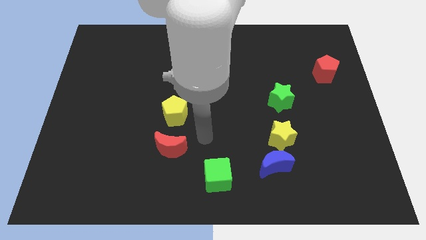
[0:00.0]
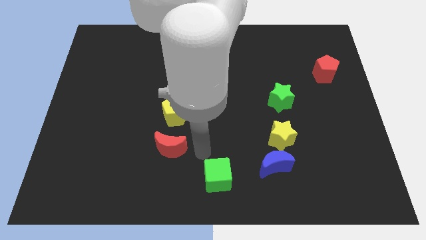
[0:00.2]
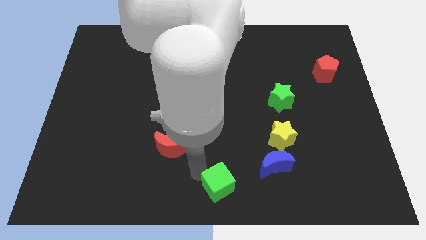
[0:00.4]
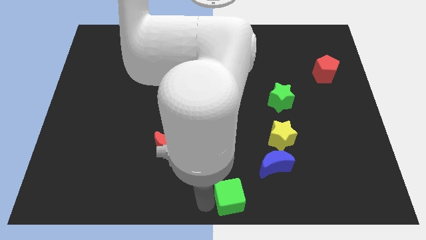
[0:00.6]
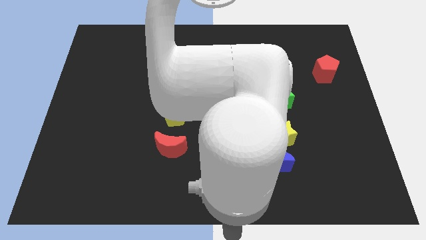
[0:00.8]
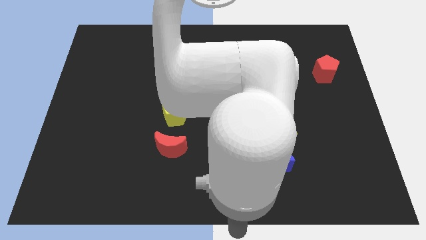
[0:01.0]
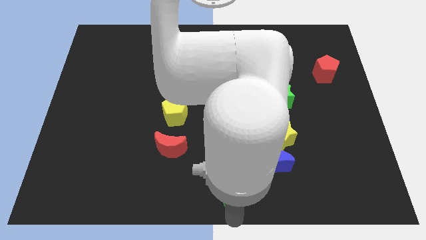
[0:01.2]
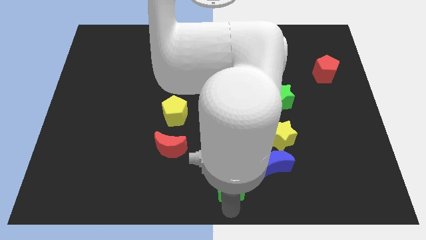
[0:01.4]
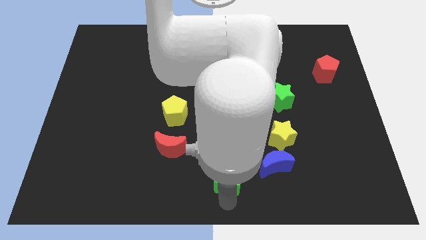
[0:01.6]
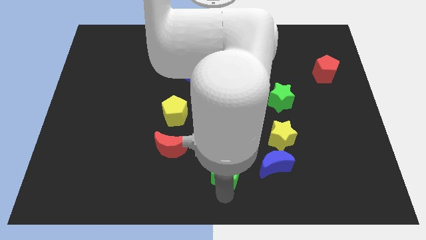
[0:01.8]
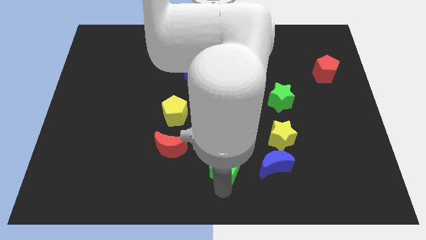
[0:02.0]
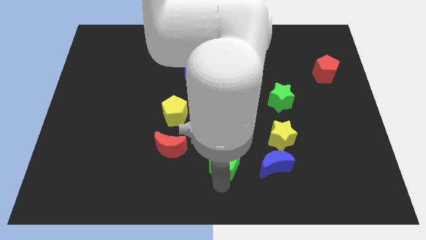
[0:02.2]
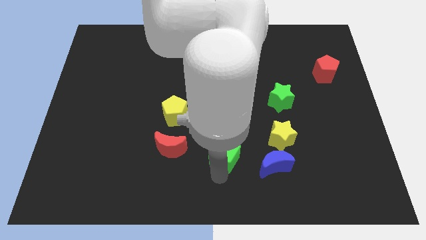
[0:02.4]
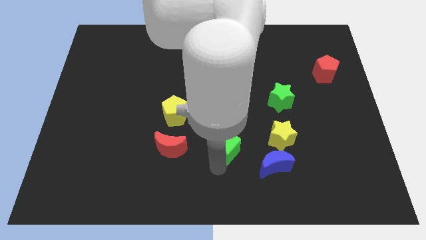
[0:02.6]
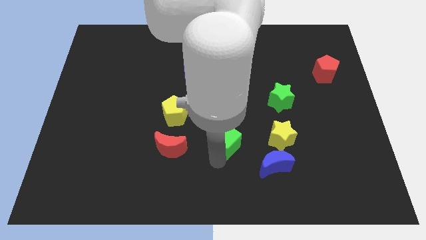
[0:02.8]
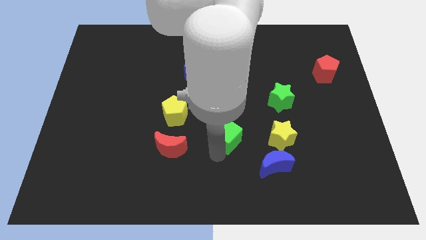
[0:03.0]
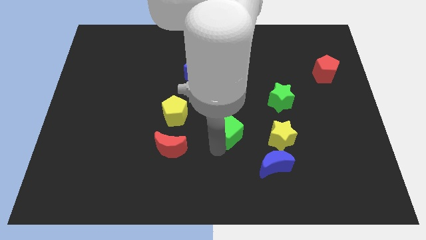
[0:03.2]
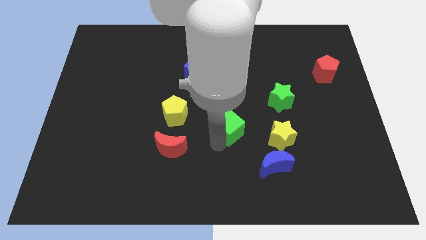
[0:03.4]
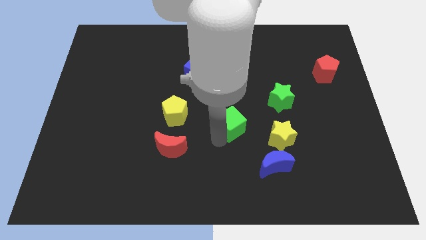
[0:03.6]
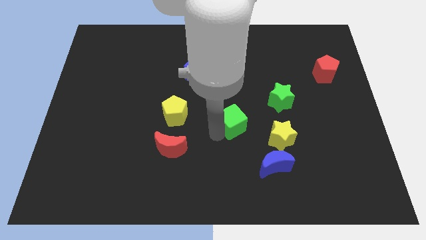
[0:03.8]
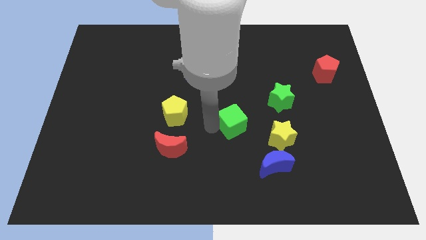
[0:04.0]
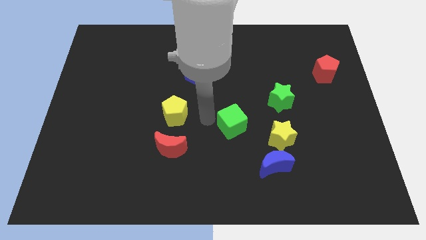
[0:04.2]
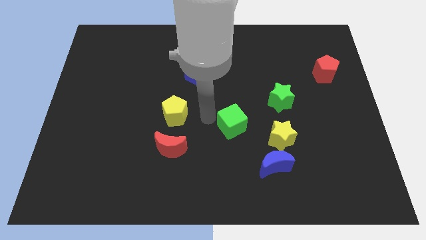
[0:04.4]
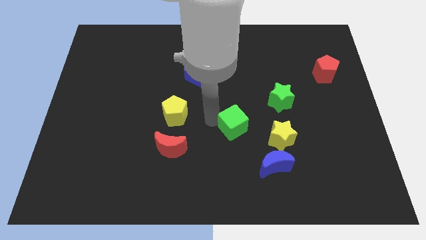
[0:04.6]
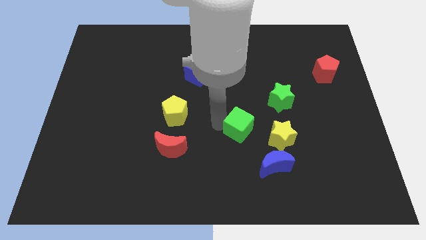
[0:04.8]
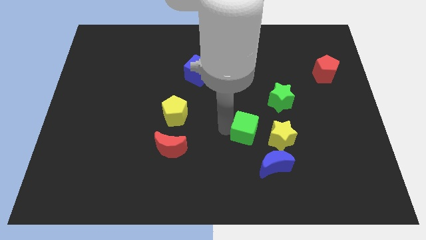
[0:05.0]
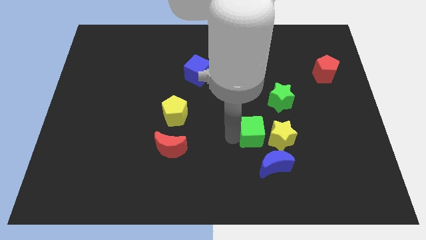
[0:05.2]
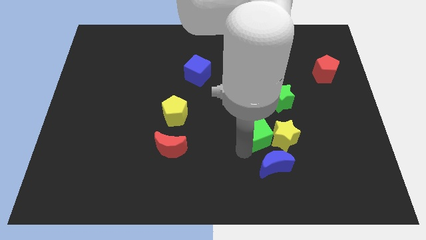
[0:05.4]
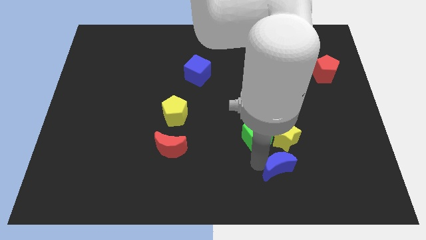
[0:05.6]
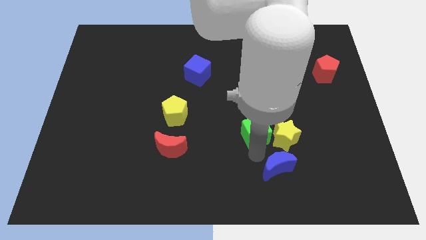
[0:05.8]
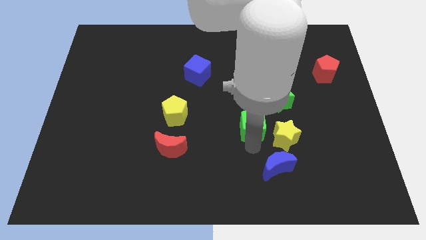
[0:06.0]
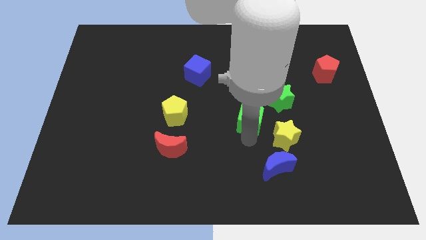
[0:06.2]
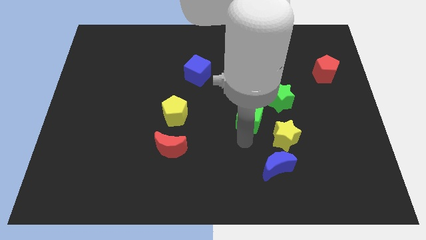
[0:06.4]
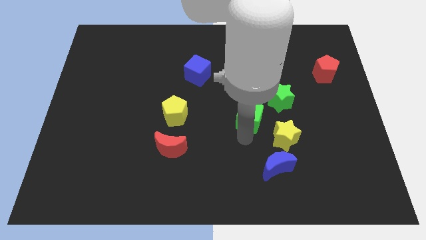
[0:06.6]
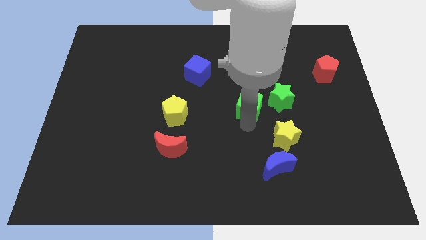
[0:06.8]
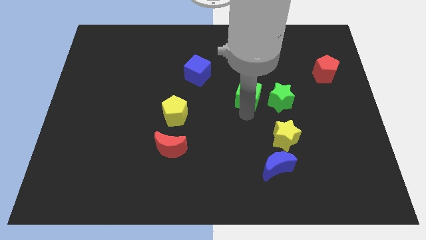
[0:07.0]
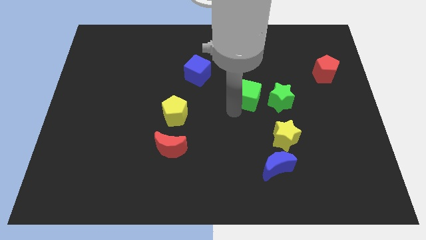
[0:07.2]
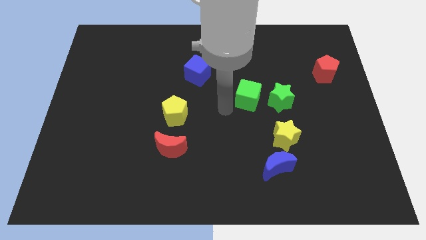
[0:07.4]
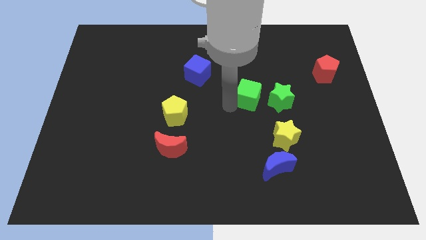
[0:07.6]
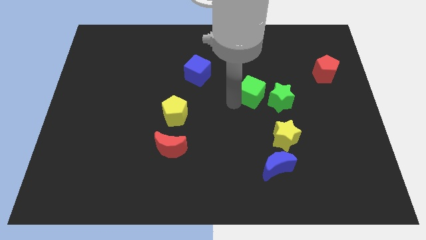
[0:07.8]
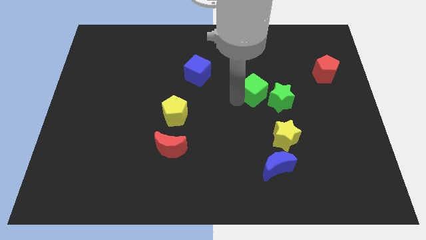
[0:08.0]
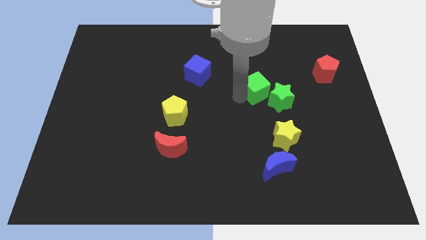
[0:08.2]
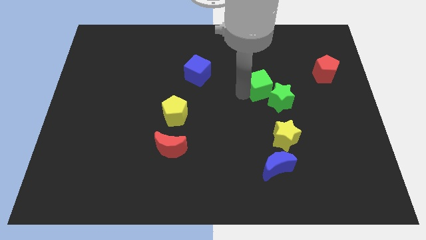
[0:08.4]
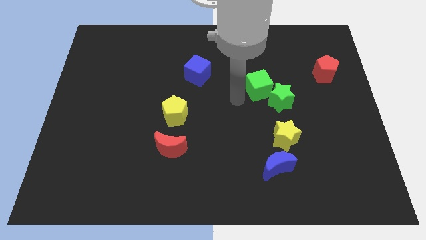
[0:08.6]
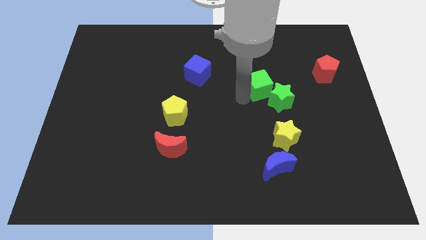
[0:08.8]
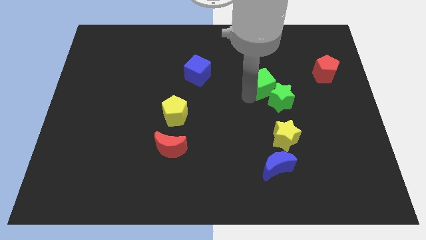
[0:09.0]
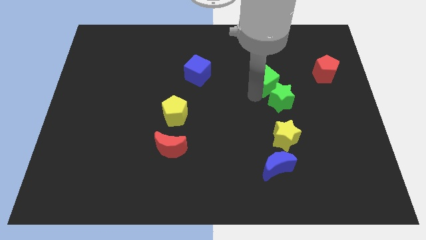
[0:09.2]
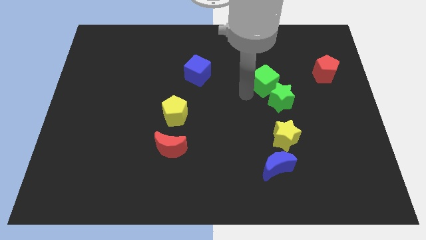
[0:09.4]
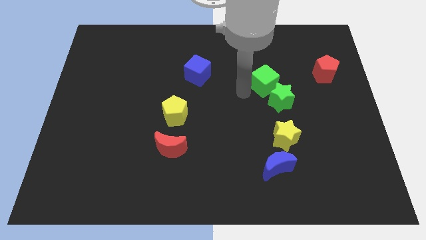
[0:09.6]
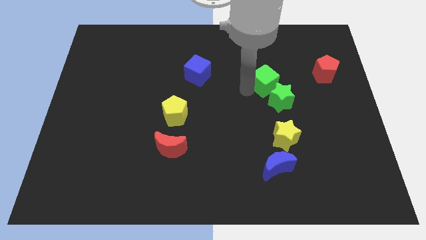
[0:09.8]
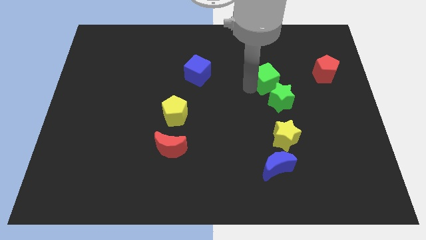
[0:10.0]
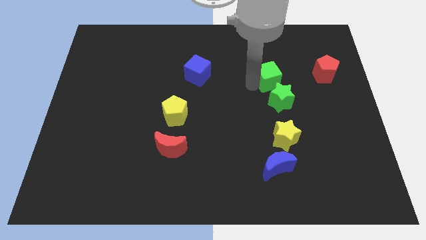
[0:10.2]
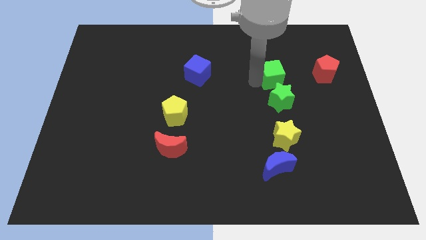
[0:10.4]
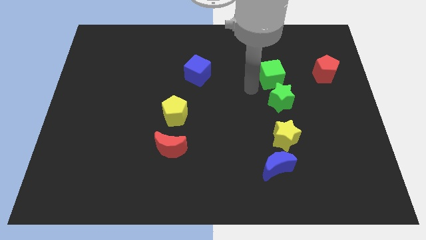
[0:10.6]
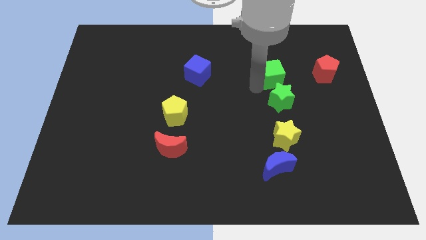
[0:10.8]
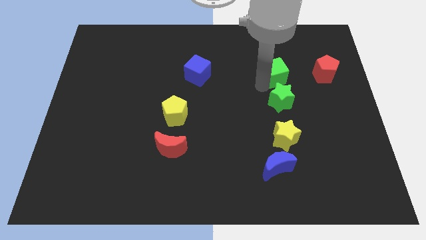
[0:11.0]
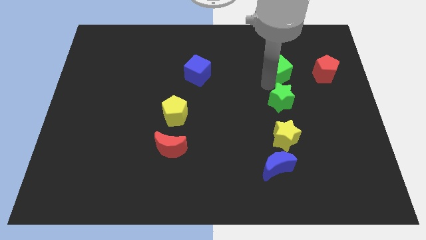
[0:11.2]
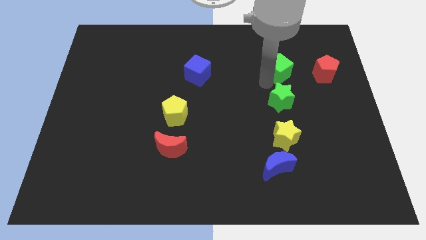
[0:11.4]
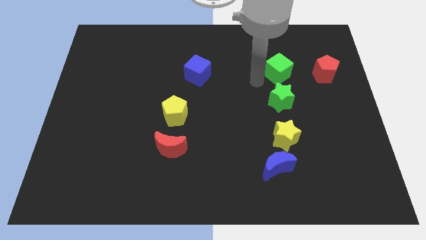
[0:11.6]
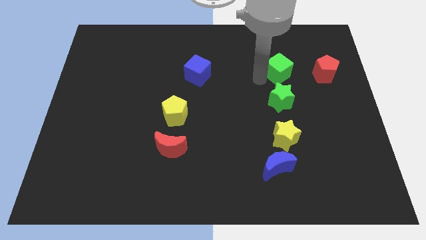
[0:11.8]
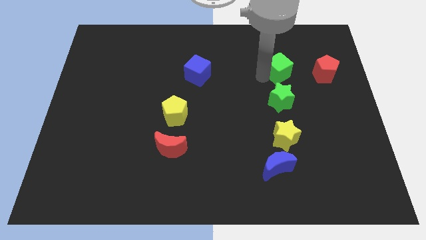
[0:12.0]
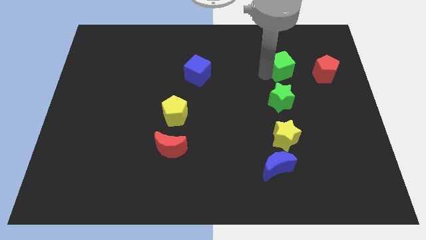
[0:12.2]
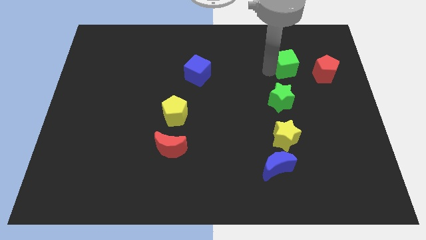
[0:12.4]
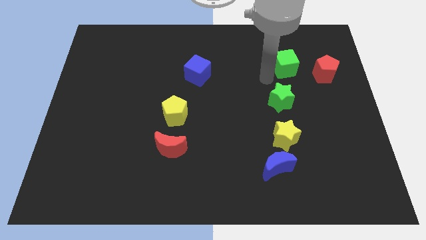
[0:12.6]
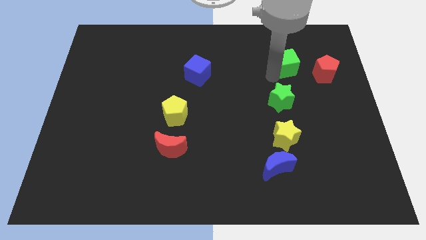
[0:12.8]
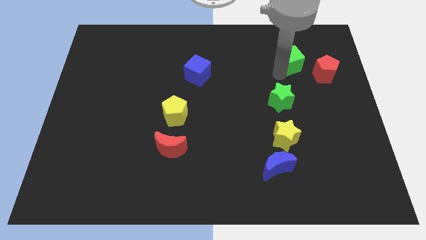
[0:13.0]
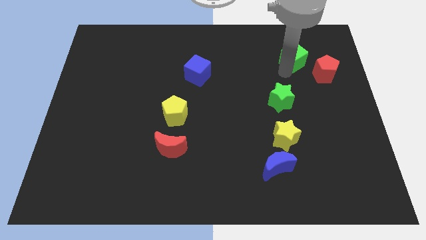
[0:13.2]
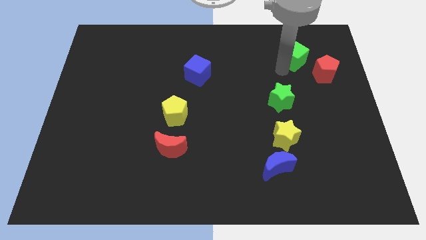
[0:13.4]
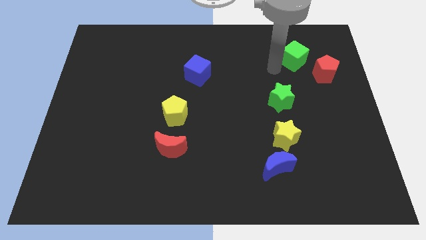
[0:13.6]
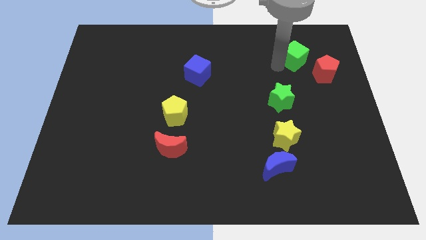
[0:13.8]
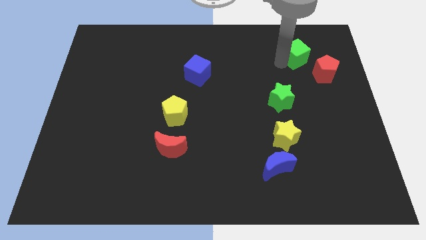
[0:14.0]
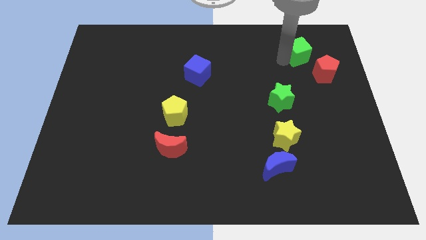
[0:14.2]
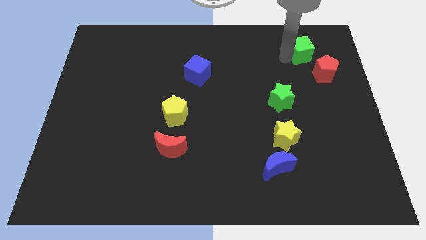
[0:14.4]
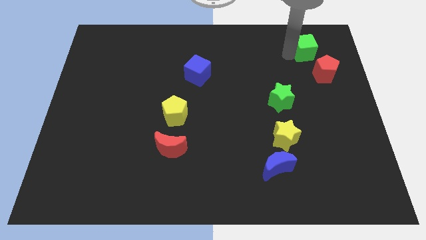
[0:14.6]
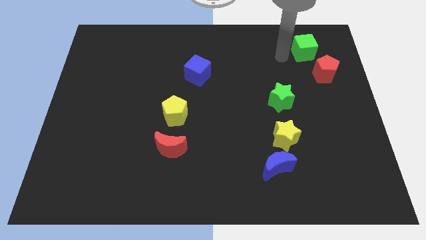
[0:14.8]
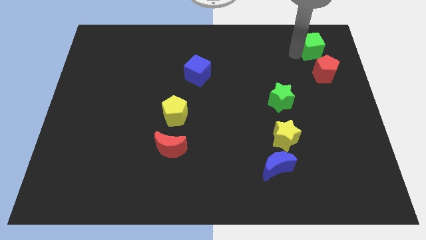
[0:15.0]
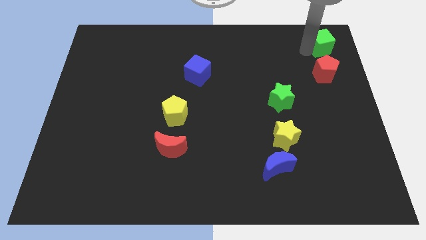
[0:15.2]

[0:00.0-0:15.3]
move the green cube to the upper right corner
